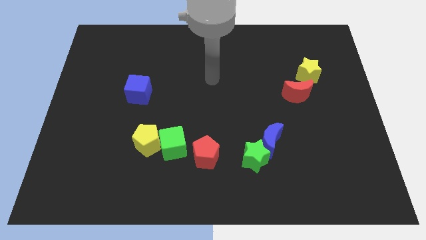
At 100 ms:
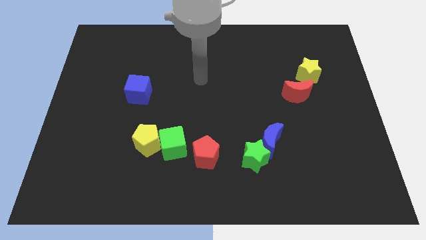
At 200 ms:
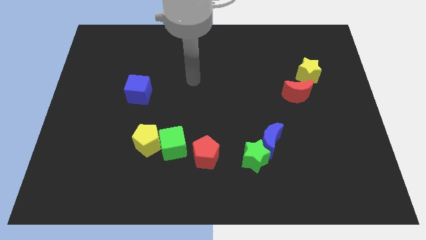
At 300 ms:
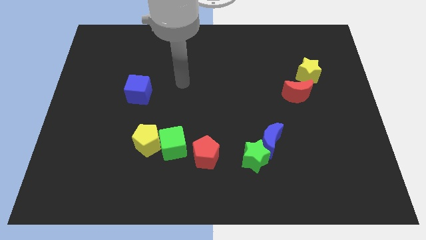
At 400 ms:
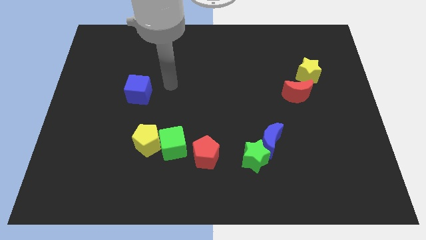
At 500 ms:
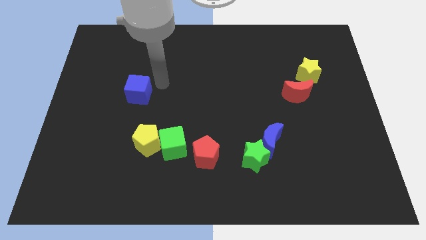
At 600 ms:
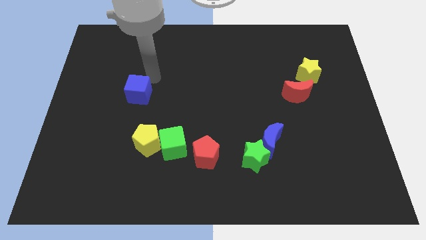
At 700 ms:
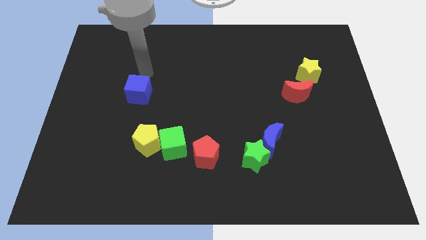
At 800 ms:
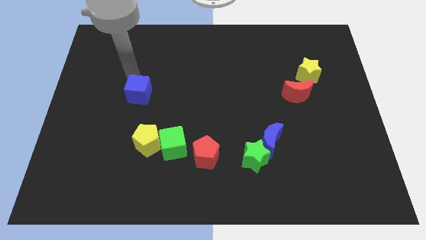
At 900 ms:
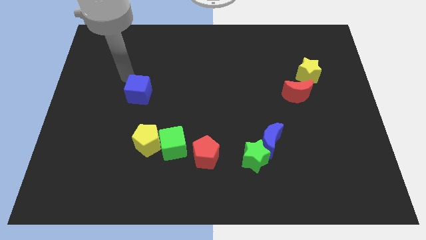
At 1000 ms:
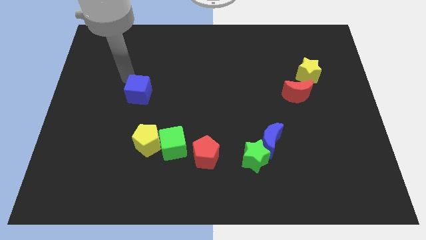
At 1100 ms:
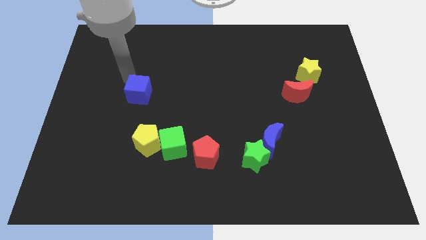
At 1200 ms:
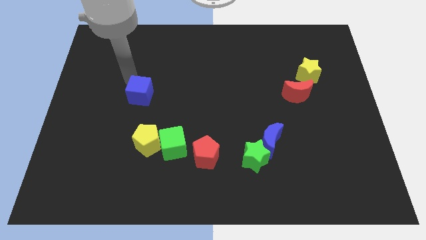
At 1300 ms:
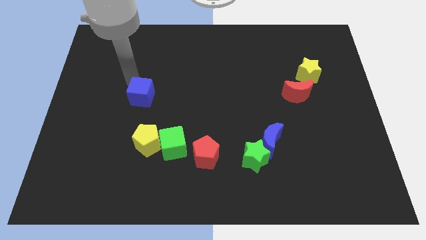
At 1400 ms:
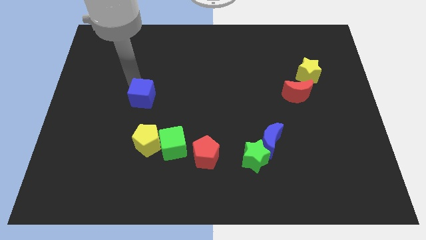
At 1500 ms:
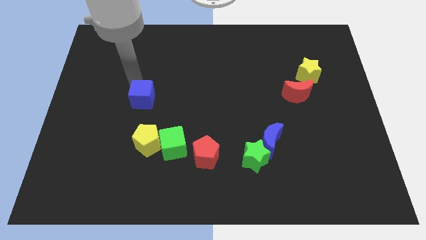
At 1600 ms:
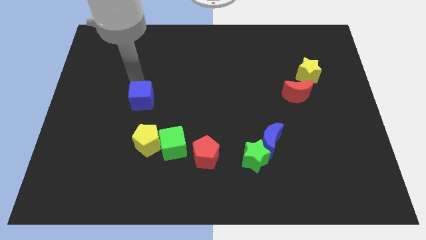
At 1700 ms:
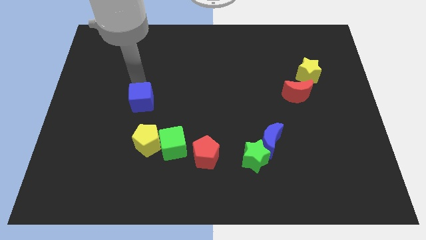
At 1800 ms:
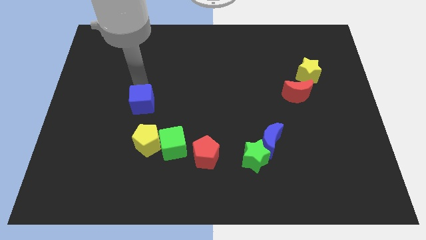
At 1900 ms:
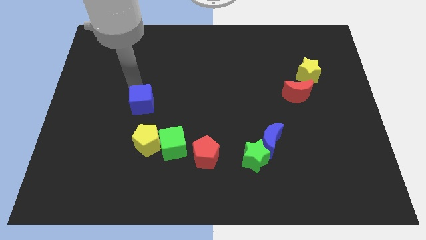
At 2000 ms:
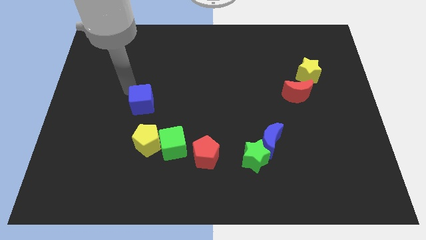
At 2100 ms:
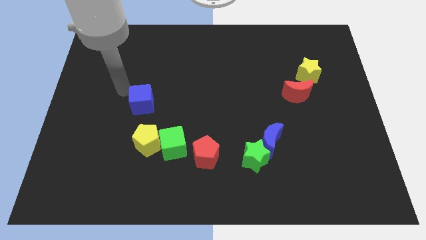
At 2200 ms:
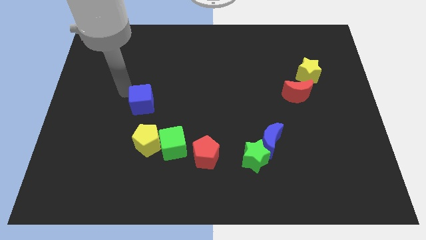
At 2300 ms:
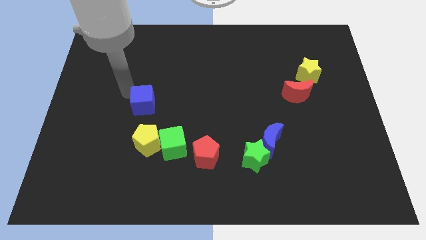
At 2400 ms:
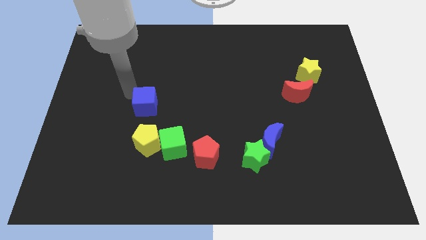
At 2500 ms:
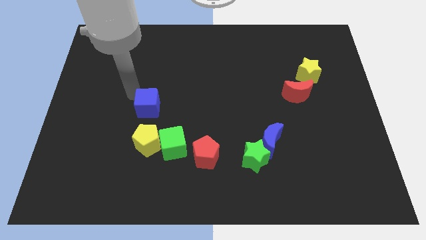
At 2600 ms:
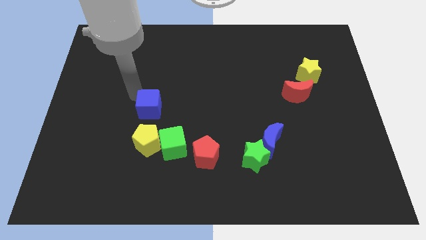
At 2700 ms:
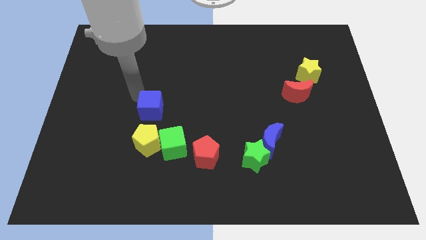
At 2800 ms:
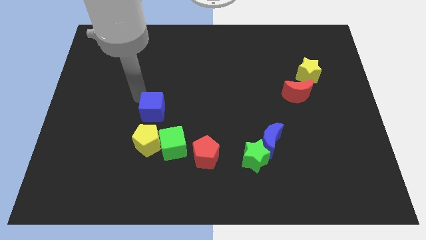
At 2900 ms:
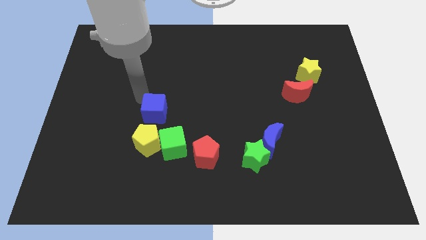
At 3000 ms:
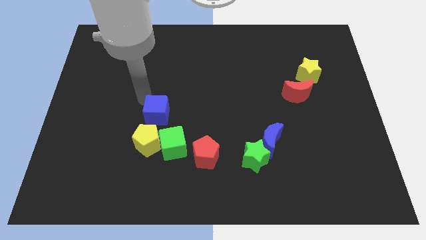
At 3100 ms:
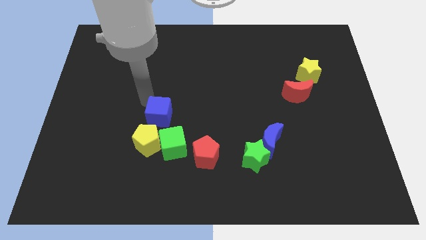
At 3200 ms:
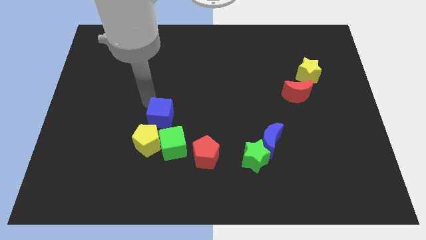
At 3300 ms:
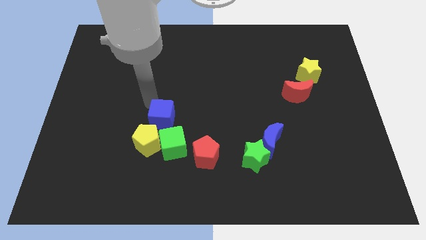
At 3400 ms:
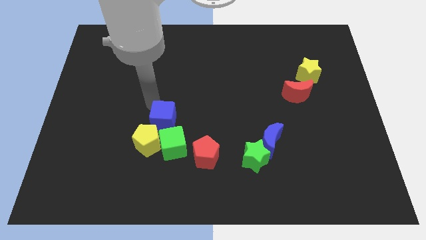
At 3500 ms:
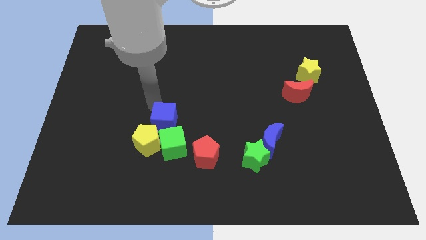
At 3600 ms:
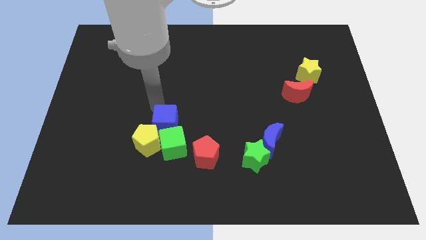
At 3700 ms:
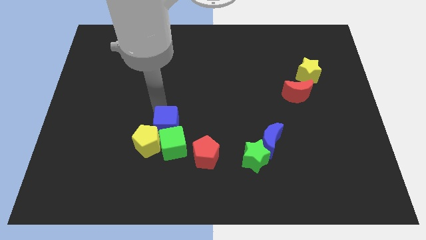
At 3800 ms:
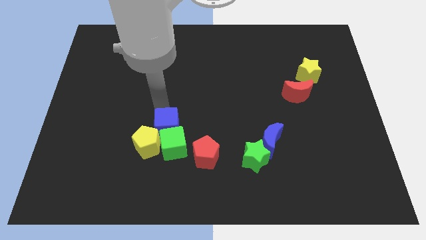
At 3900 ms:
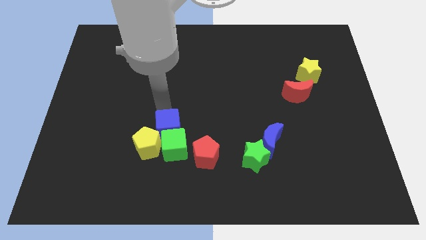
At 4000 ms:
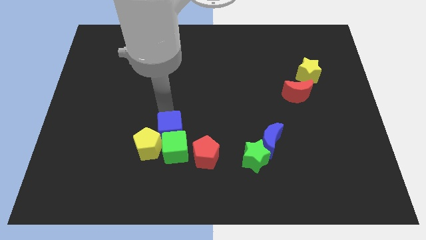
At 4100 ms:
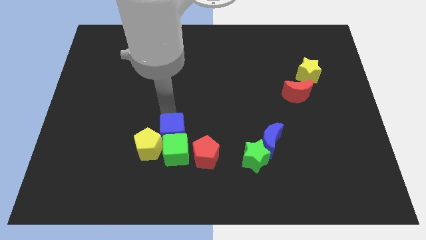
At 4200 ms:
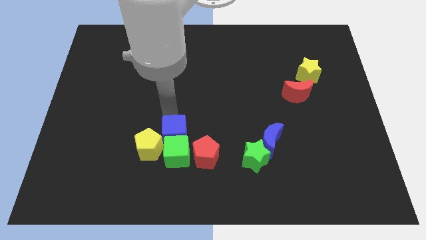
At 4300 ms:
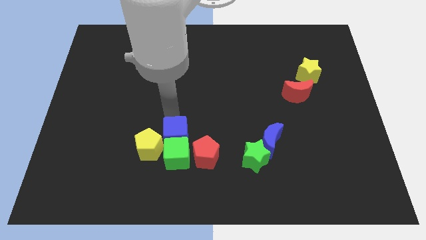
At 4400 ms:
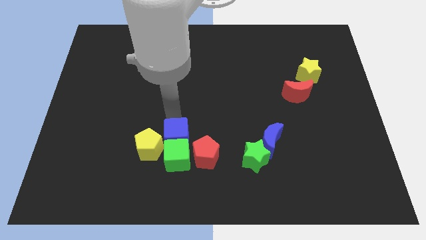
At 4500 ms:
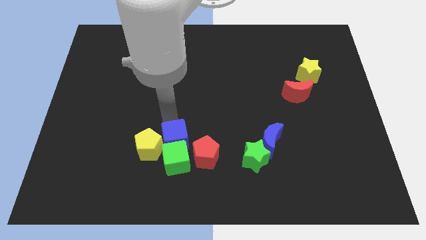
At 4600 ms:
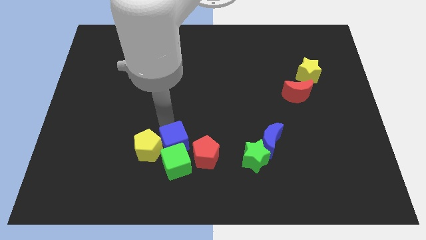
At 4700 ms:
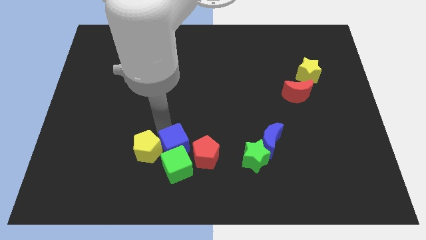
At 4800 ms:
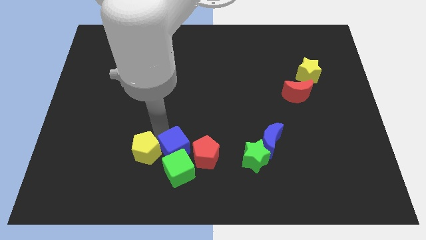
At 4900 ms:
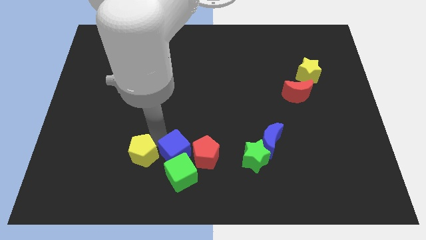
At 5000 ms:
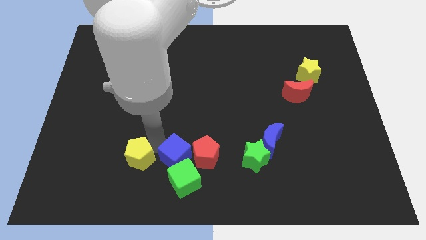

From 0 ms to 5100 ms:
move the blue cube towards the red pentagon

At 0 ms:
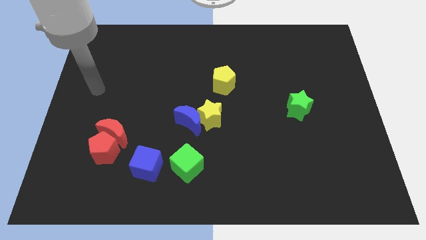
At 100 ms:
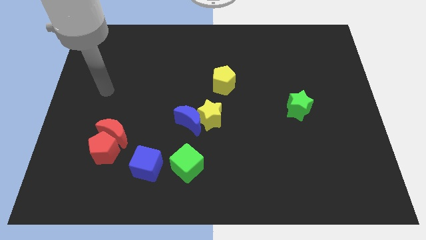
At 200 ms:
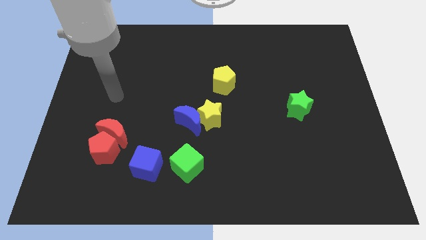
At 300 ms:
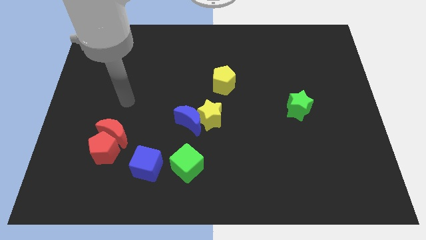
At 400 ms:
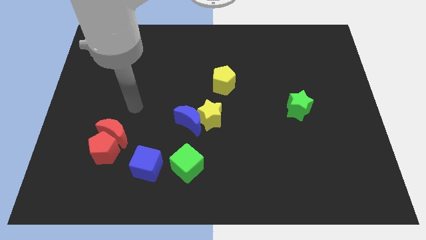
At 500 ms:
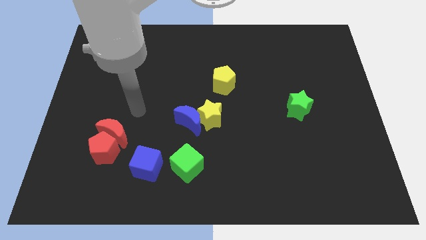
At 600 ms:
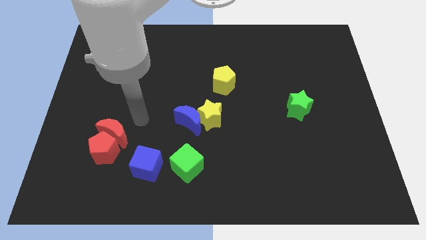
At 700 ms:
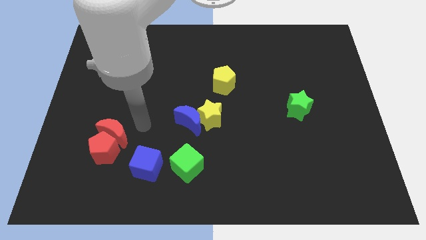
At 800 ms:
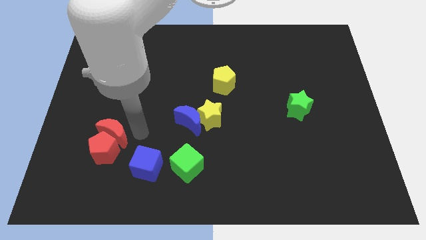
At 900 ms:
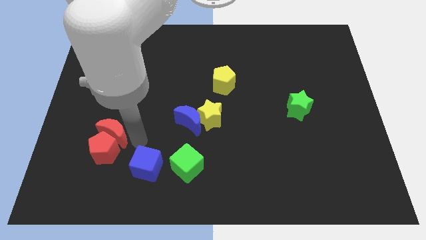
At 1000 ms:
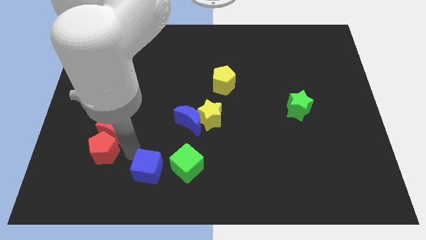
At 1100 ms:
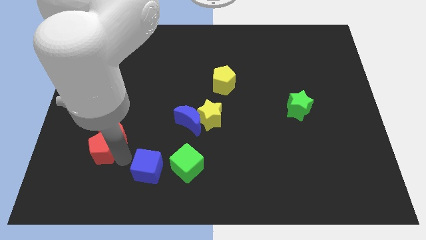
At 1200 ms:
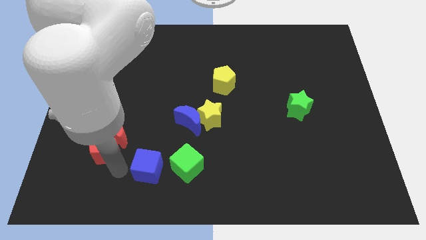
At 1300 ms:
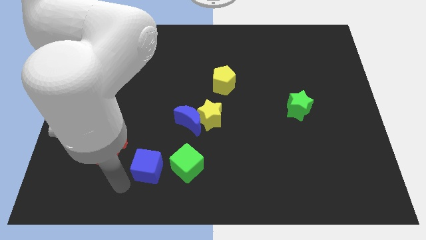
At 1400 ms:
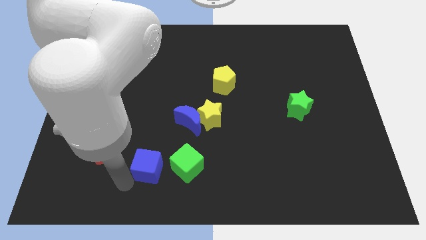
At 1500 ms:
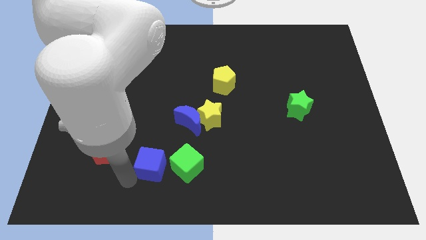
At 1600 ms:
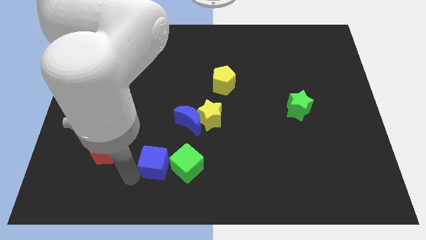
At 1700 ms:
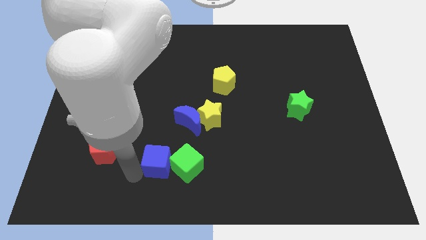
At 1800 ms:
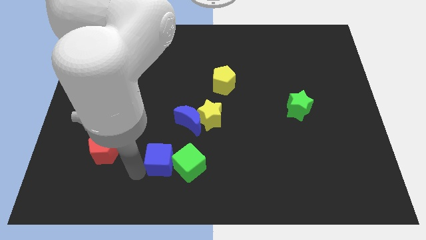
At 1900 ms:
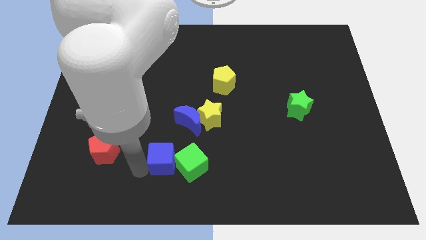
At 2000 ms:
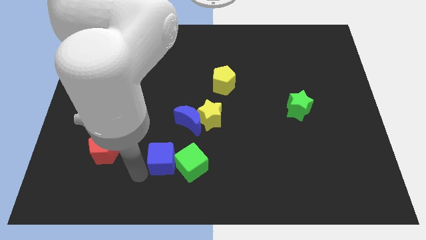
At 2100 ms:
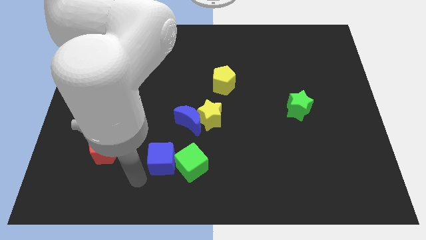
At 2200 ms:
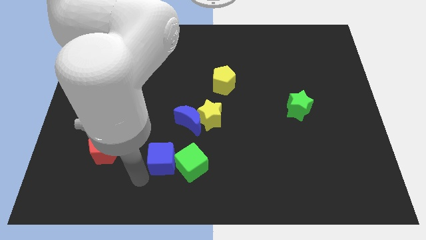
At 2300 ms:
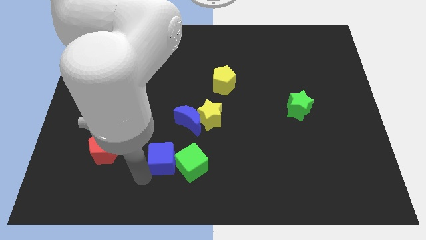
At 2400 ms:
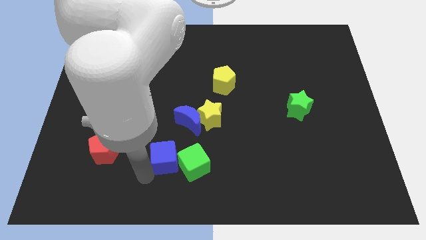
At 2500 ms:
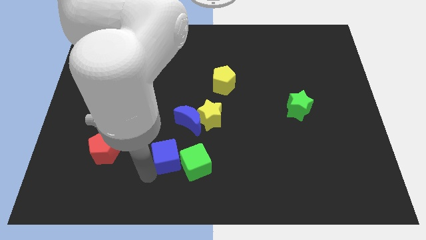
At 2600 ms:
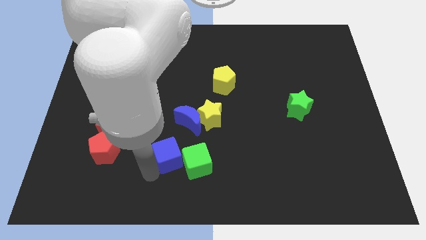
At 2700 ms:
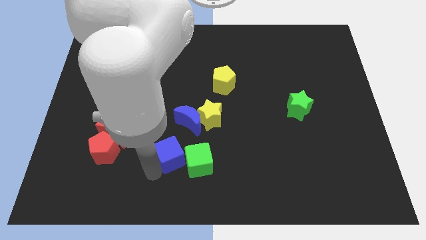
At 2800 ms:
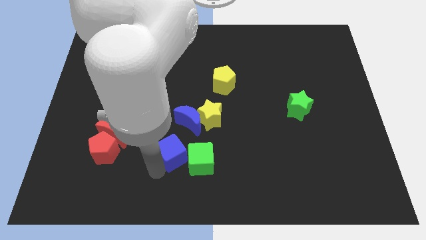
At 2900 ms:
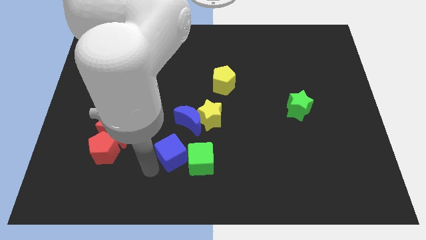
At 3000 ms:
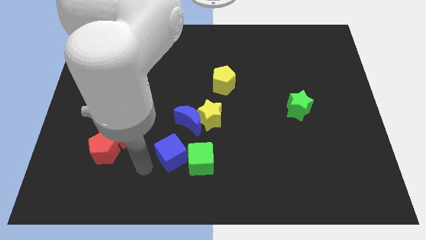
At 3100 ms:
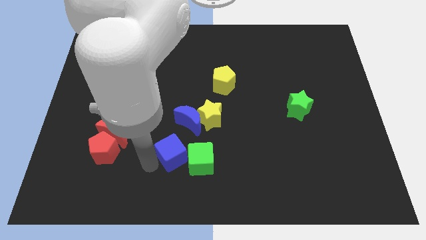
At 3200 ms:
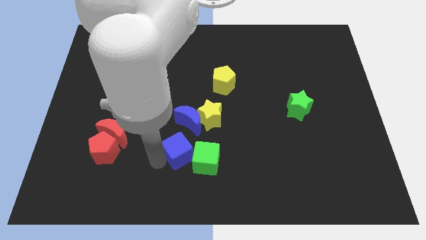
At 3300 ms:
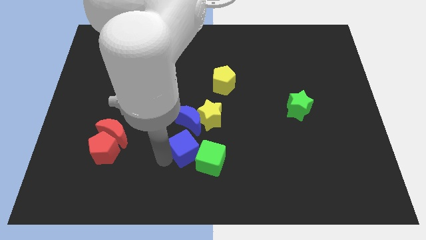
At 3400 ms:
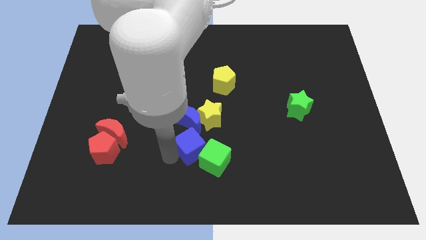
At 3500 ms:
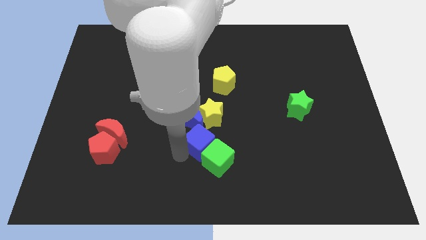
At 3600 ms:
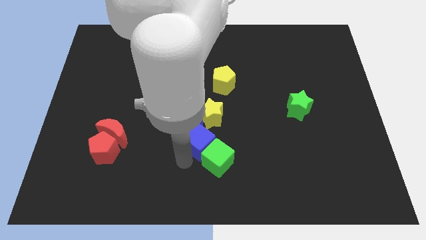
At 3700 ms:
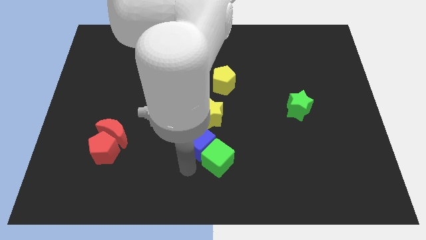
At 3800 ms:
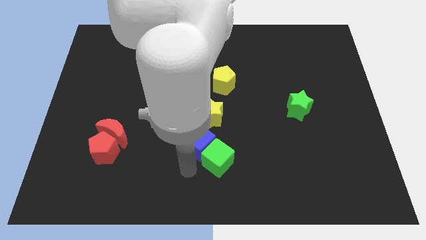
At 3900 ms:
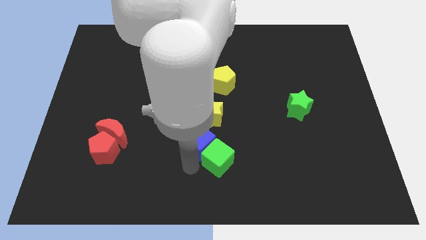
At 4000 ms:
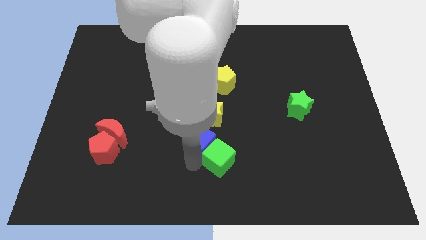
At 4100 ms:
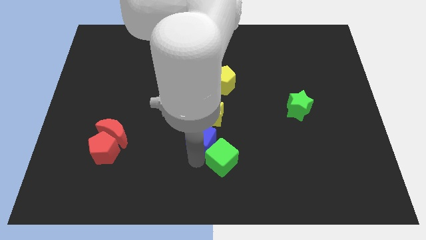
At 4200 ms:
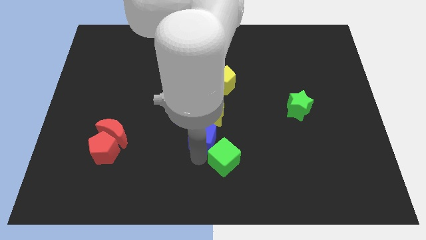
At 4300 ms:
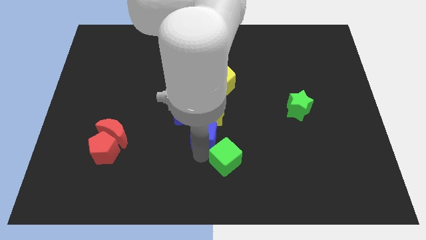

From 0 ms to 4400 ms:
put the blue cube towards the yellow star
